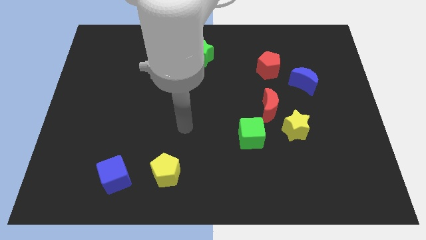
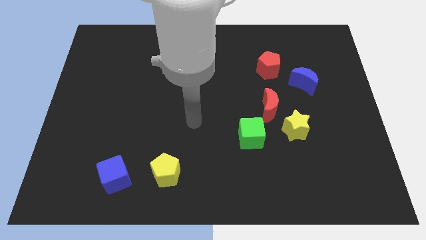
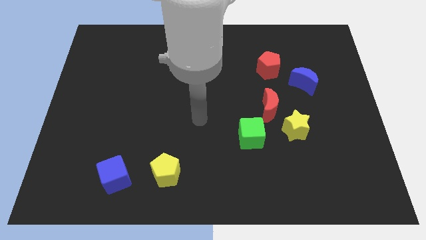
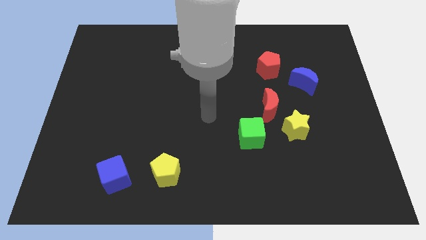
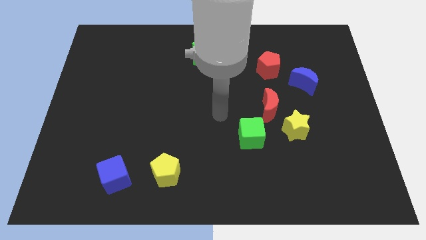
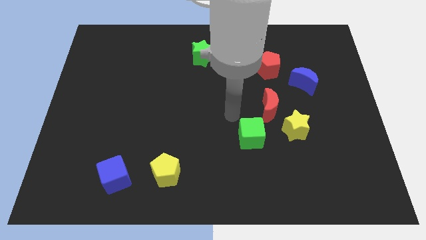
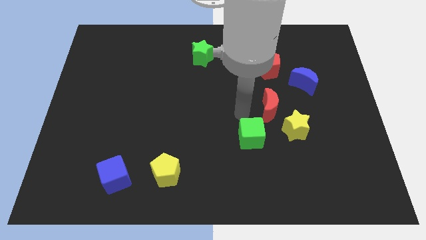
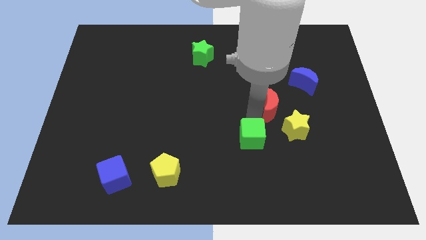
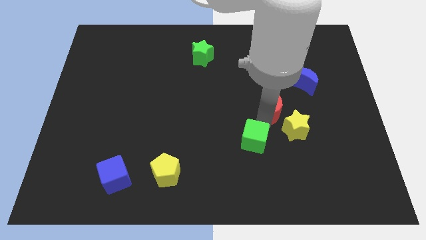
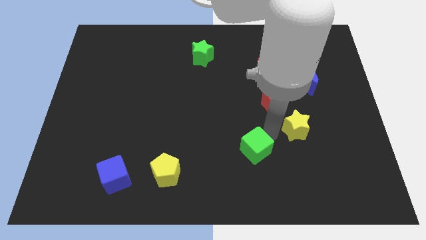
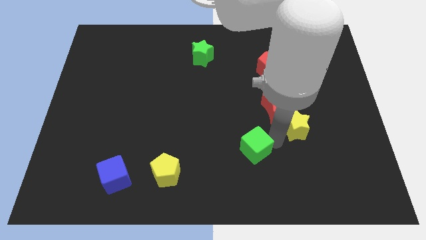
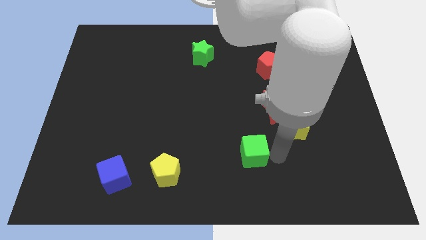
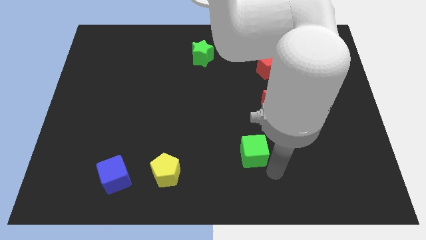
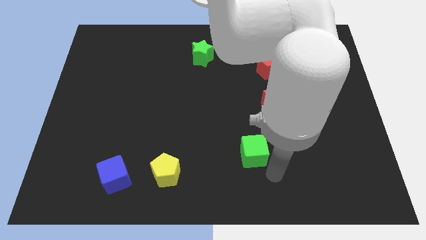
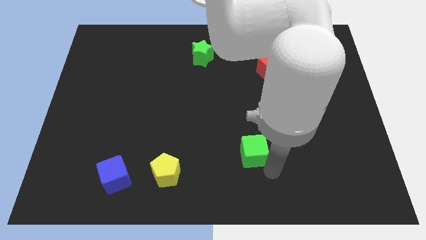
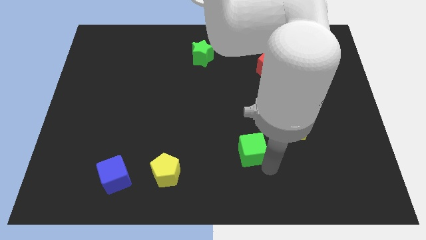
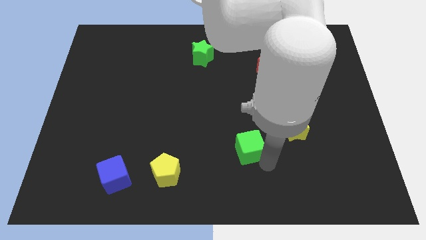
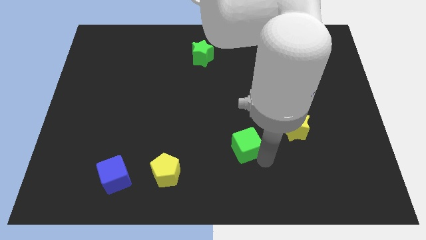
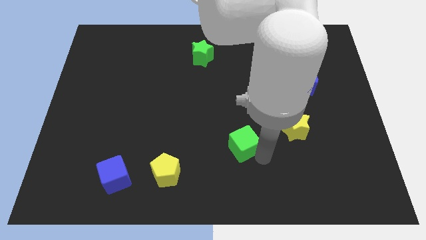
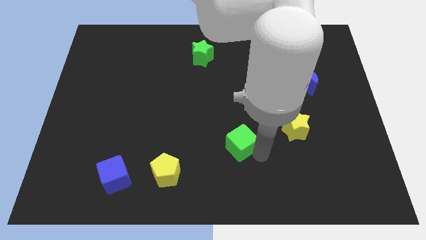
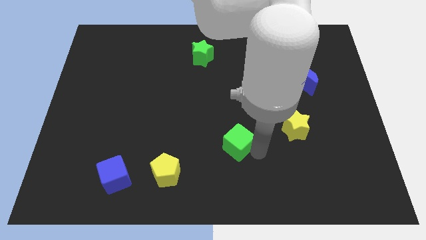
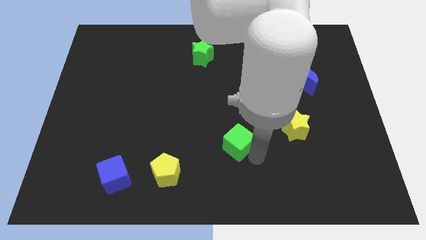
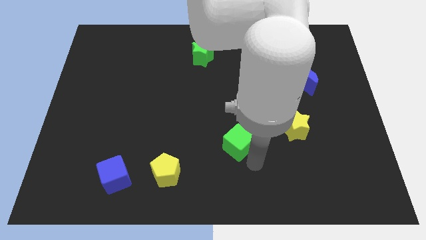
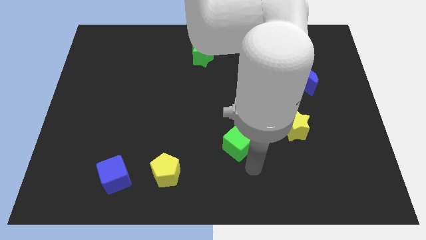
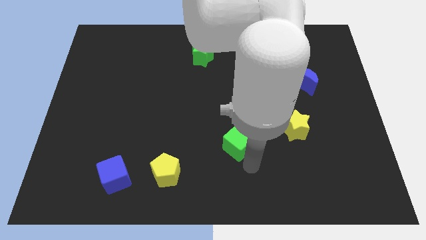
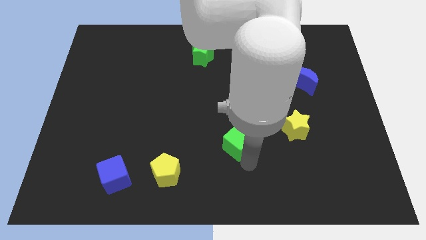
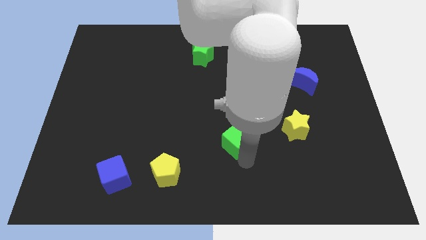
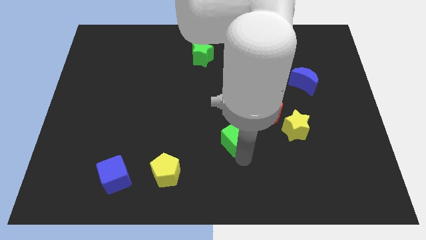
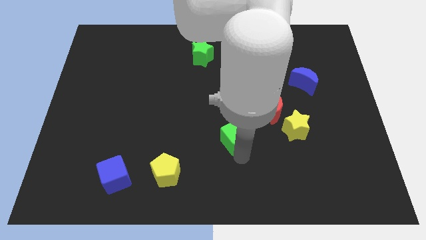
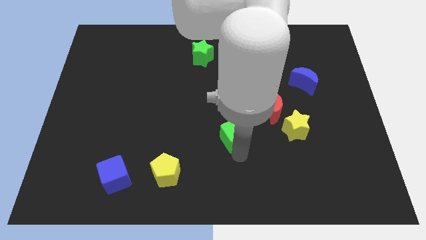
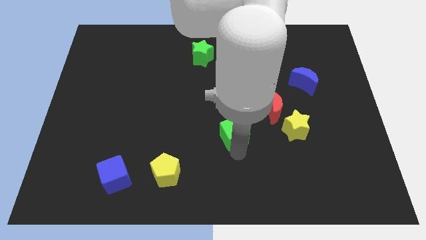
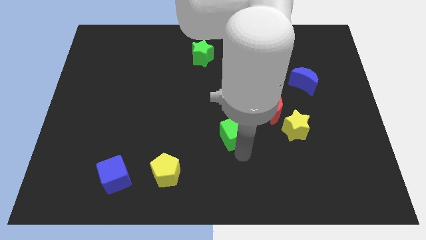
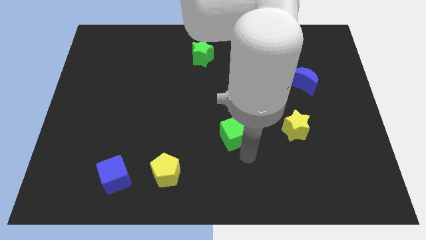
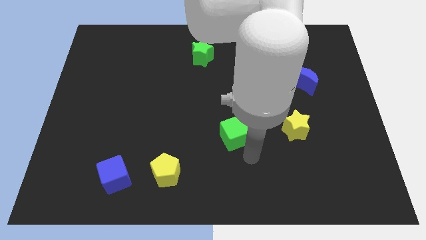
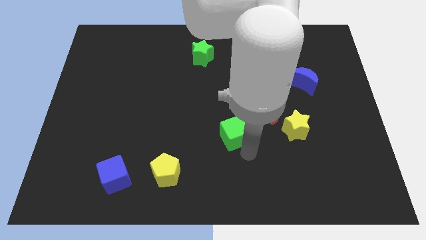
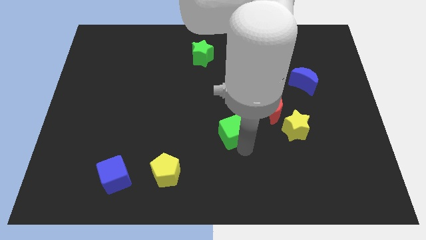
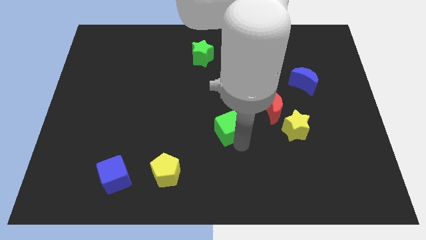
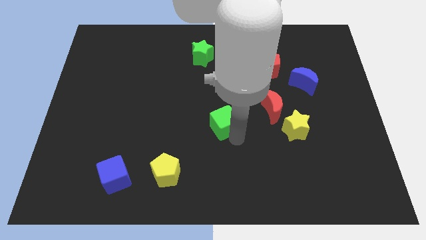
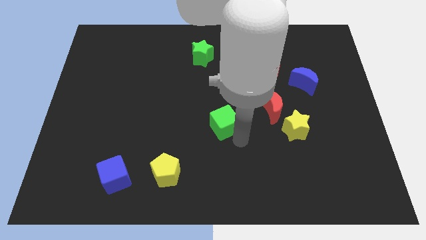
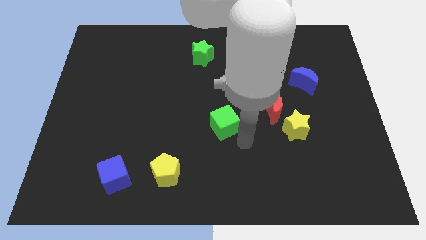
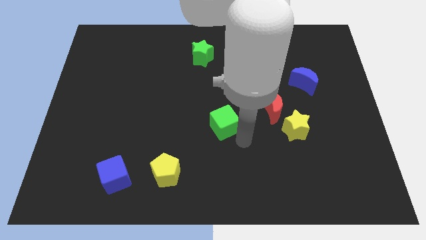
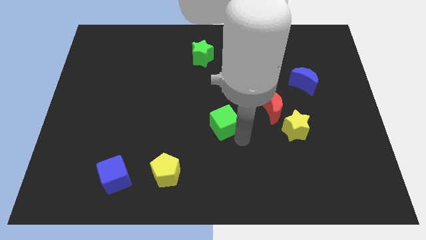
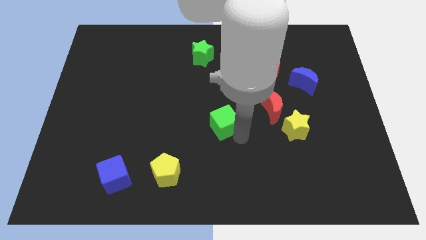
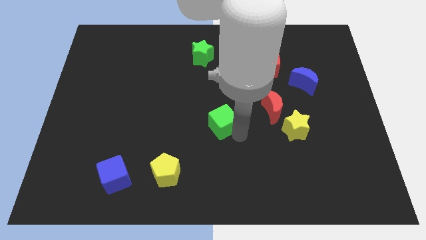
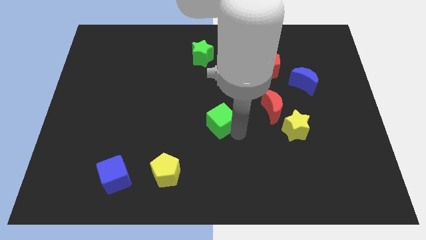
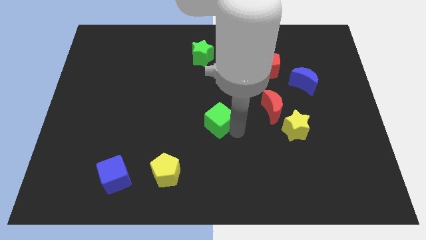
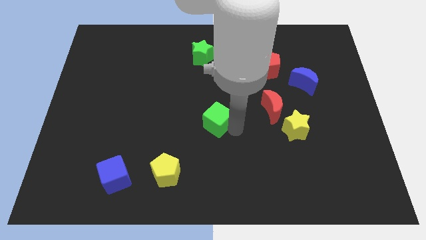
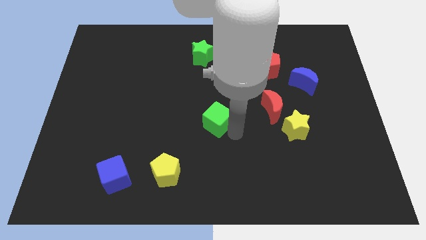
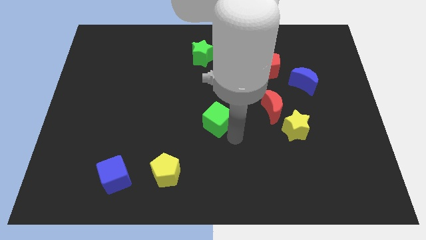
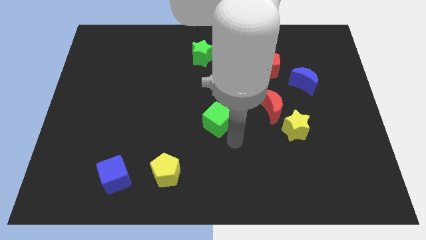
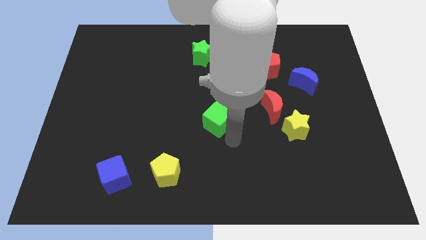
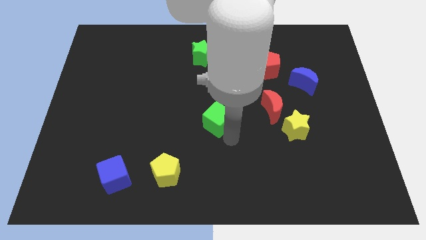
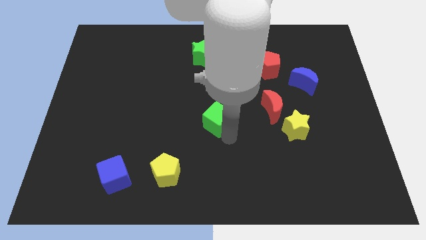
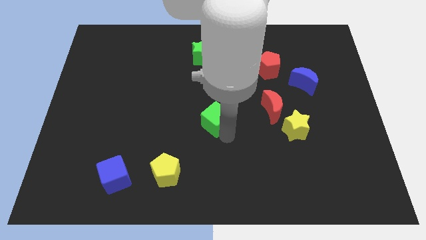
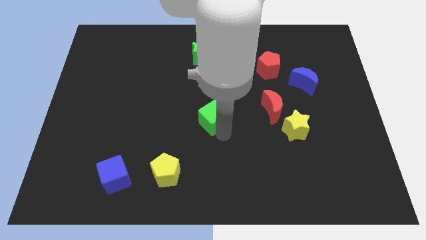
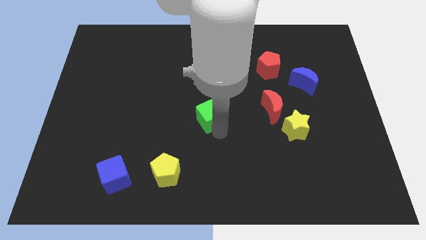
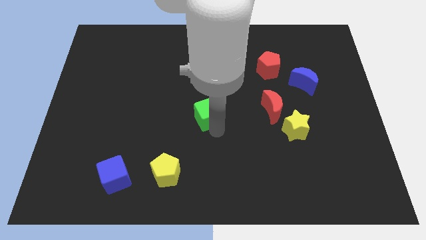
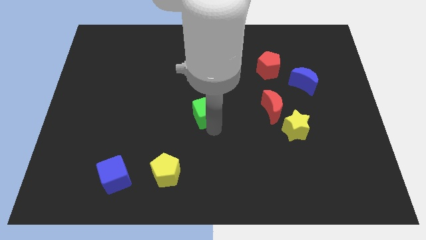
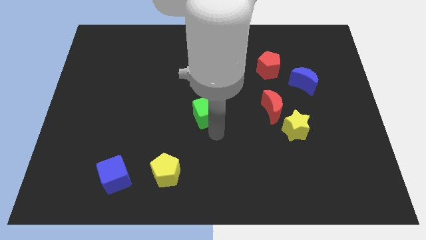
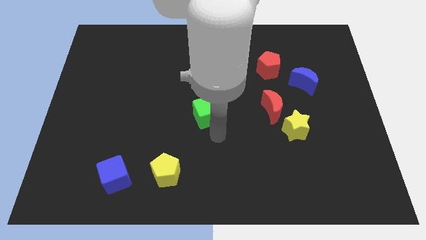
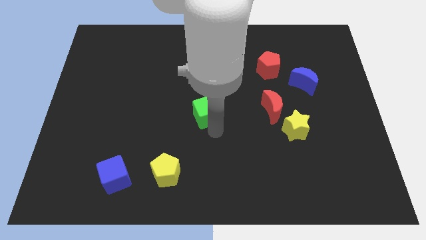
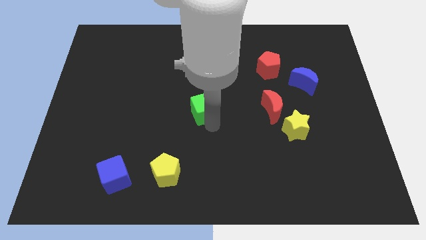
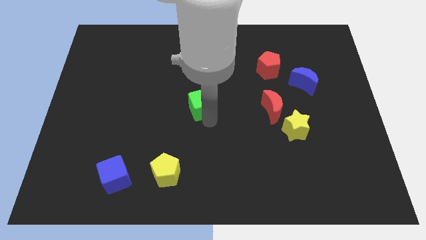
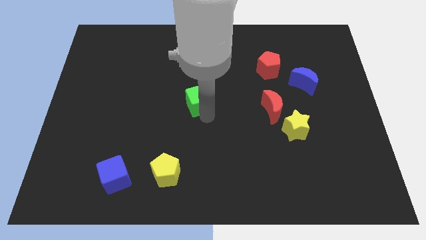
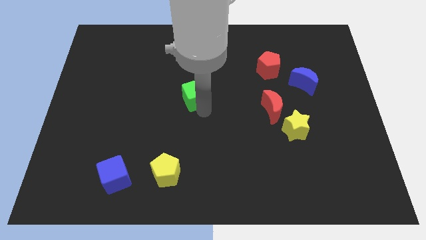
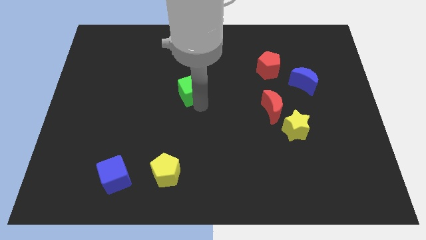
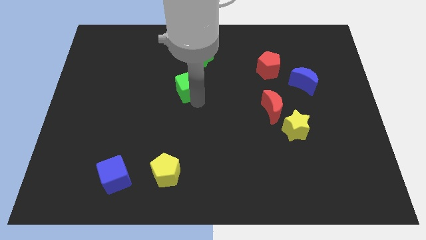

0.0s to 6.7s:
push the green cube upwards and left

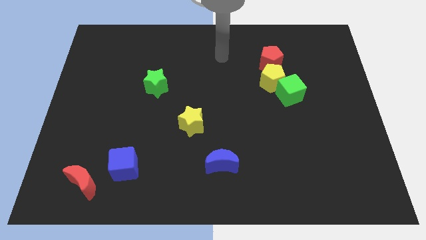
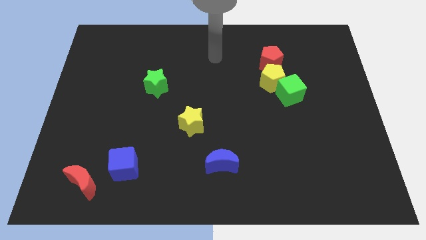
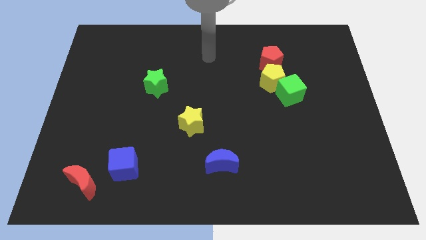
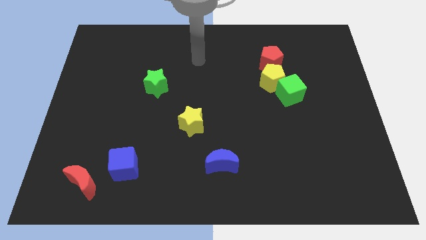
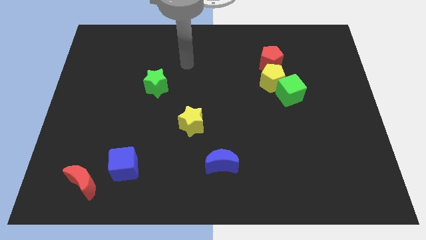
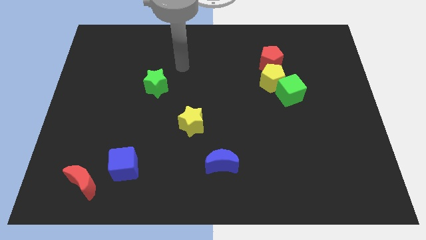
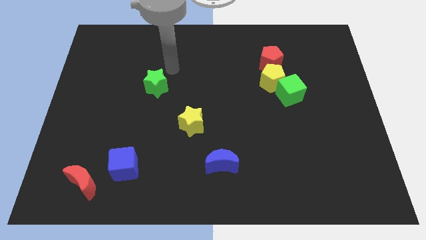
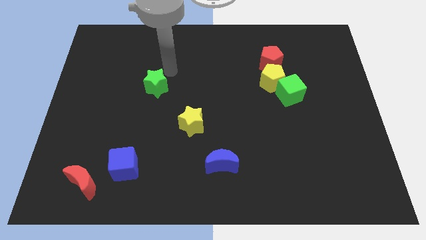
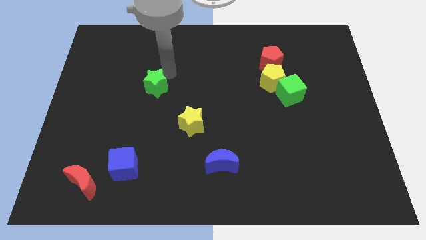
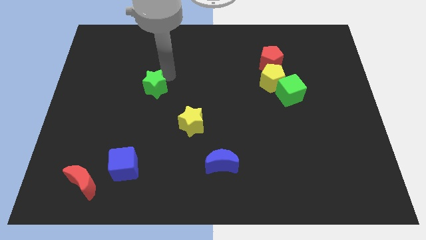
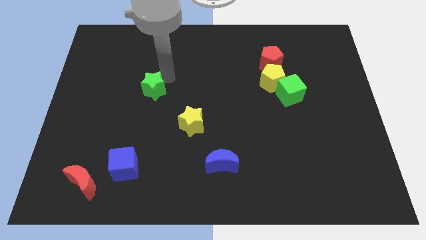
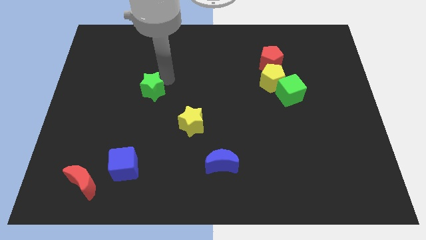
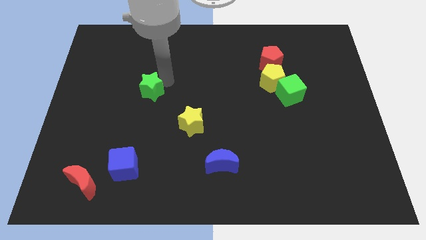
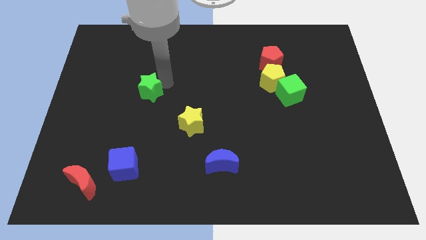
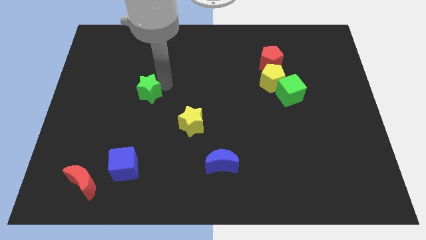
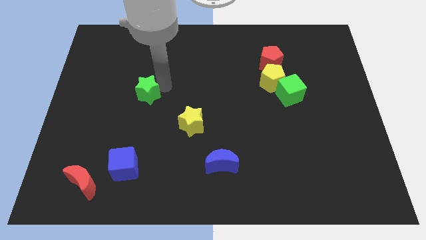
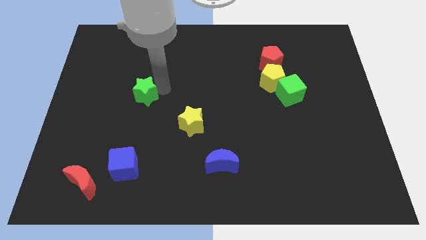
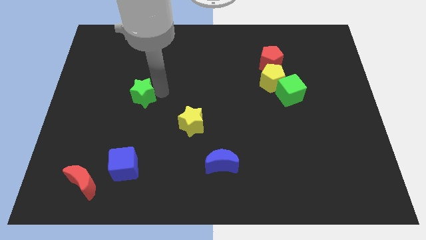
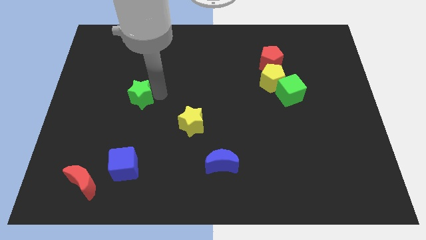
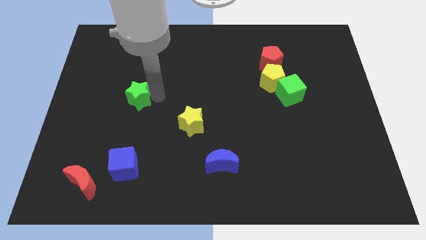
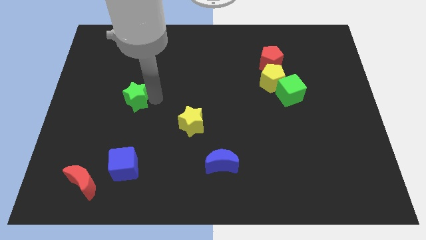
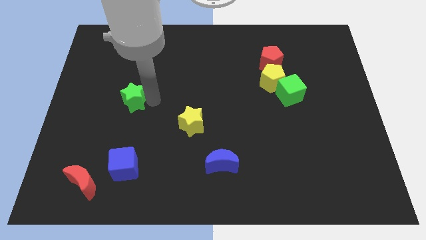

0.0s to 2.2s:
push the green star down and then left a bit
